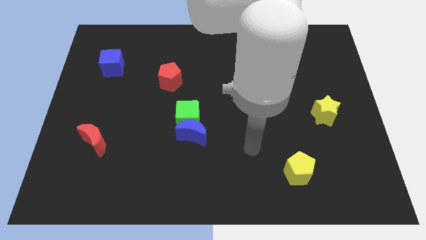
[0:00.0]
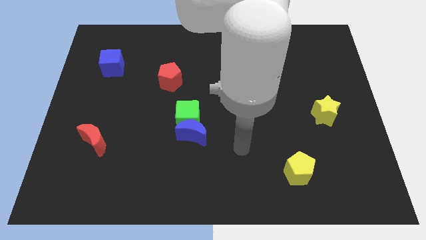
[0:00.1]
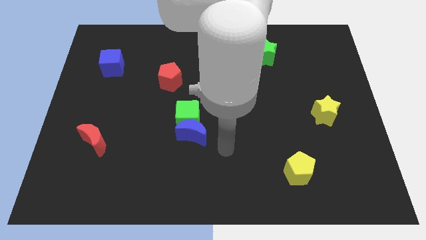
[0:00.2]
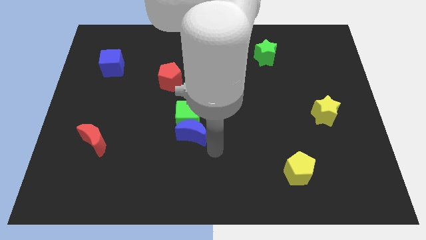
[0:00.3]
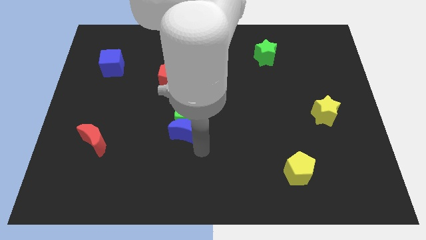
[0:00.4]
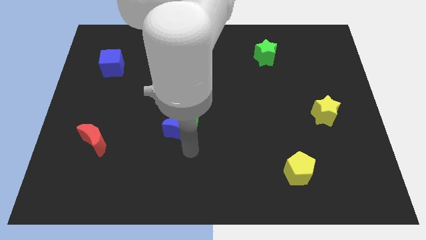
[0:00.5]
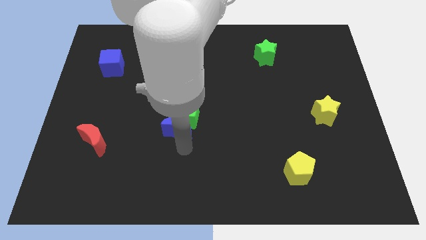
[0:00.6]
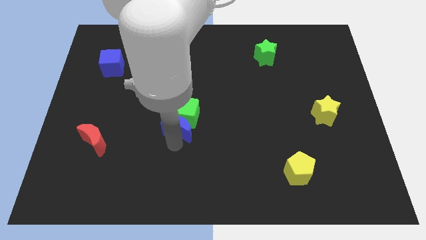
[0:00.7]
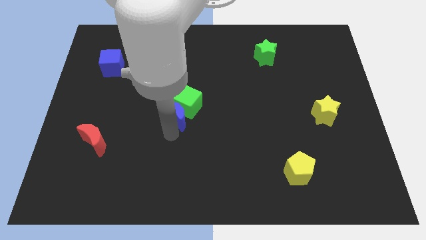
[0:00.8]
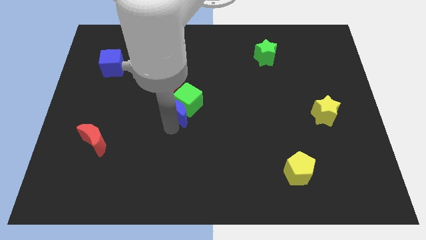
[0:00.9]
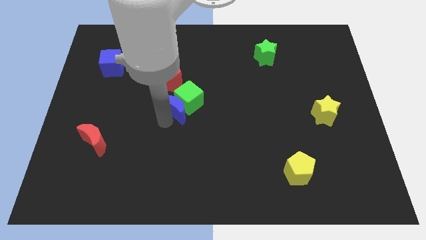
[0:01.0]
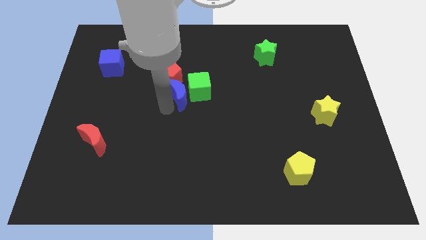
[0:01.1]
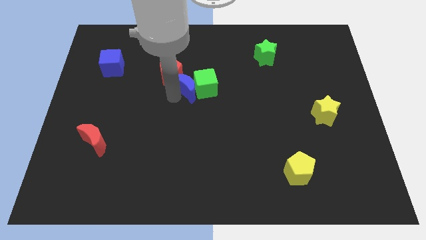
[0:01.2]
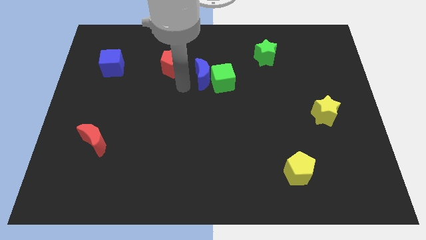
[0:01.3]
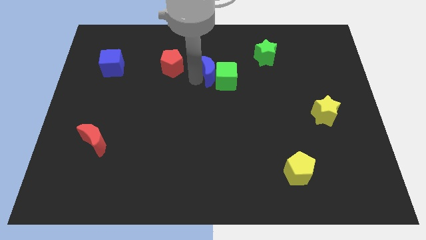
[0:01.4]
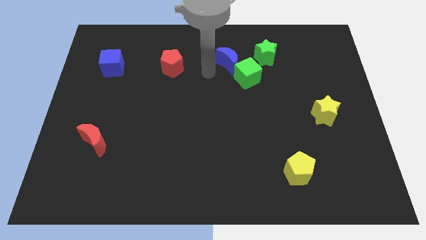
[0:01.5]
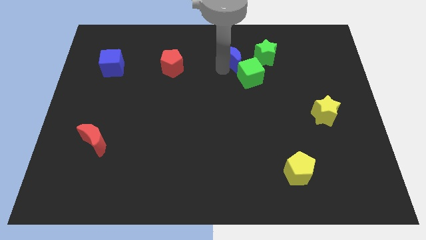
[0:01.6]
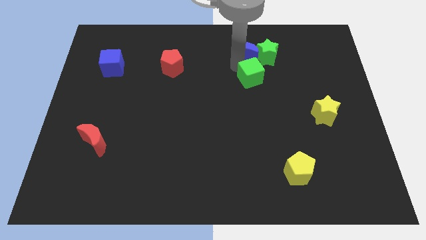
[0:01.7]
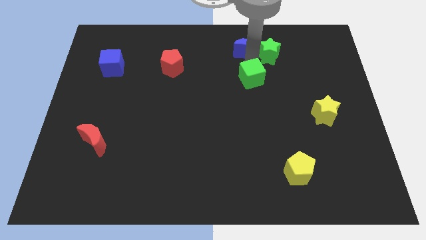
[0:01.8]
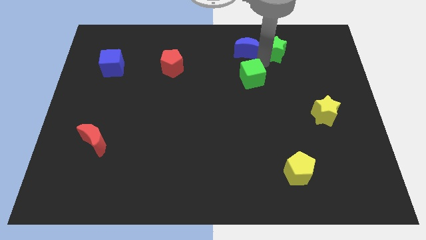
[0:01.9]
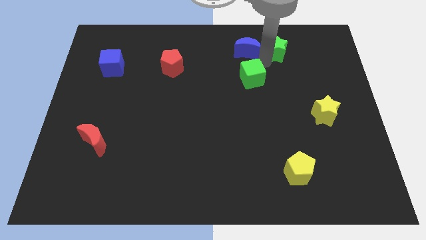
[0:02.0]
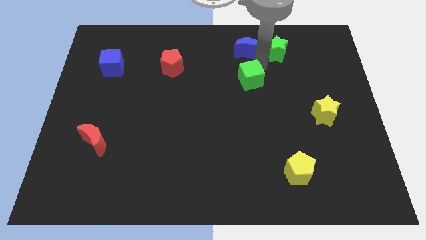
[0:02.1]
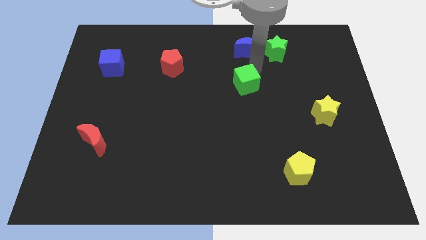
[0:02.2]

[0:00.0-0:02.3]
move the green cube right somewhat

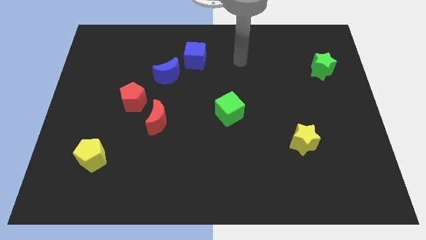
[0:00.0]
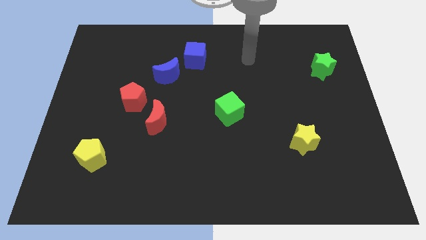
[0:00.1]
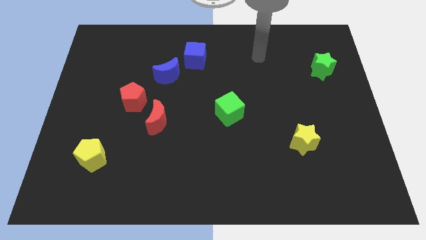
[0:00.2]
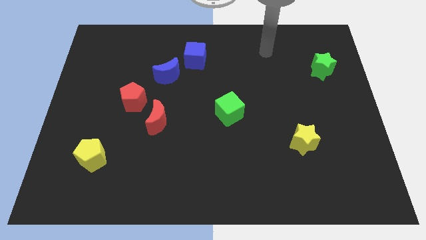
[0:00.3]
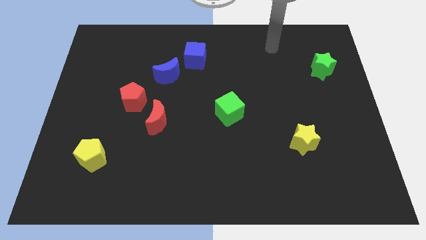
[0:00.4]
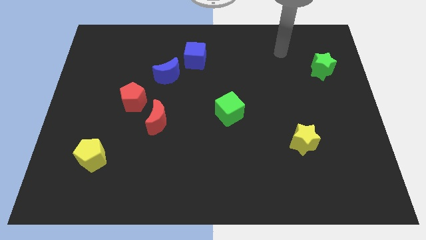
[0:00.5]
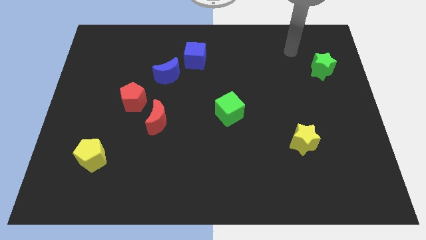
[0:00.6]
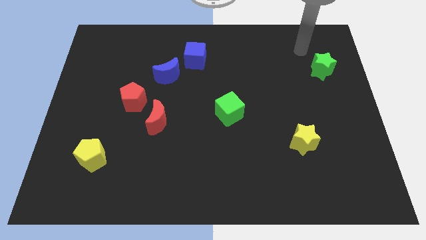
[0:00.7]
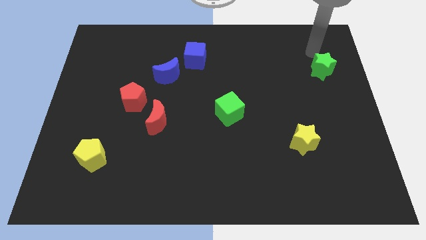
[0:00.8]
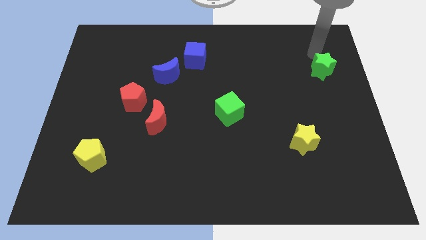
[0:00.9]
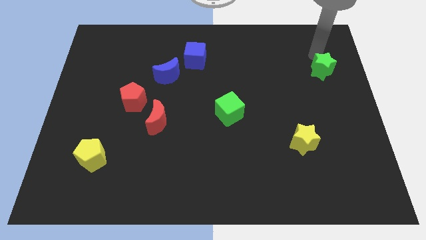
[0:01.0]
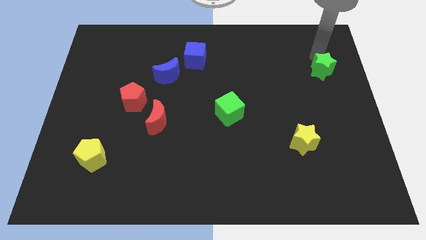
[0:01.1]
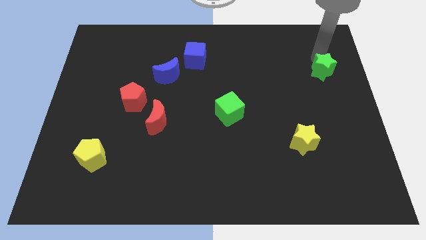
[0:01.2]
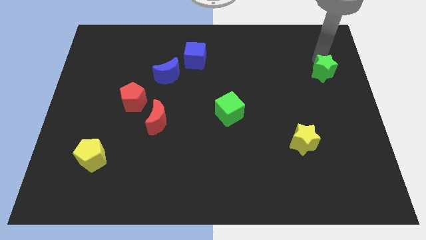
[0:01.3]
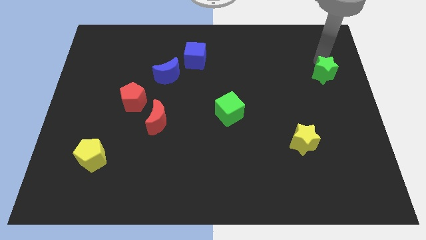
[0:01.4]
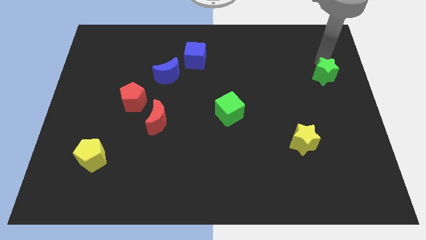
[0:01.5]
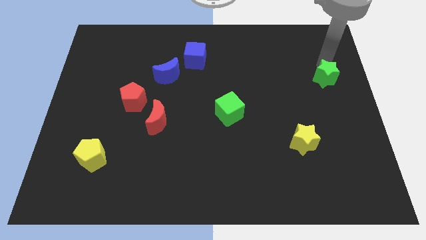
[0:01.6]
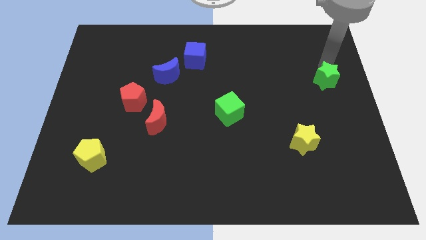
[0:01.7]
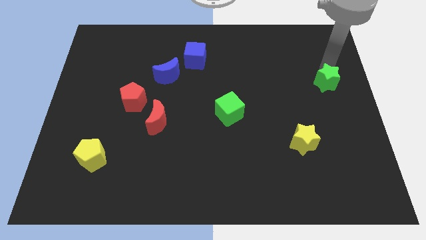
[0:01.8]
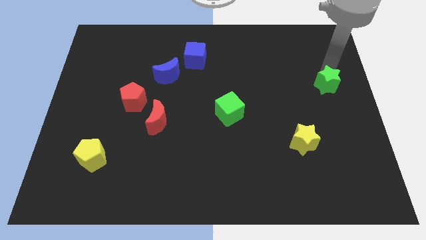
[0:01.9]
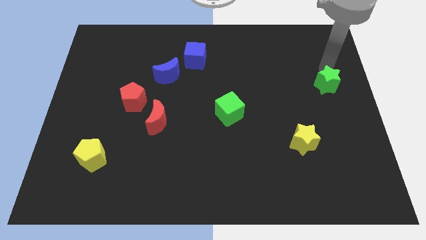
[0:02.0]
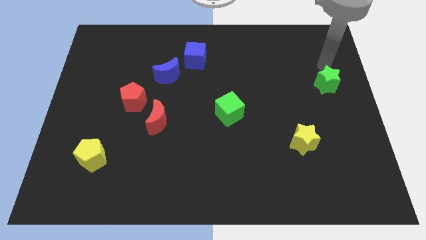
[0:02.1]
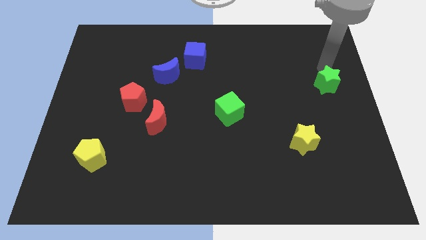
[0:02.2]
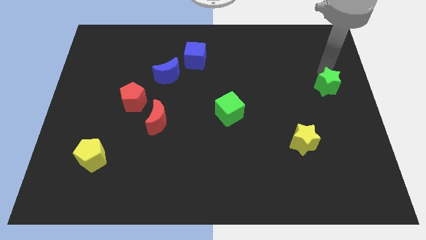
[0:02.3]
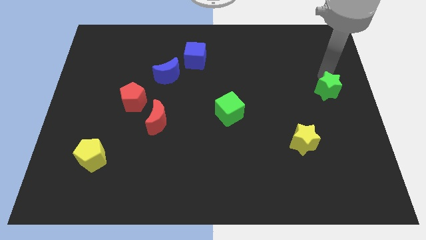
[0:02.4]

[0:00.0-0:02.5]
slightly move the green star down

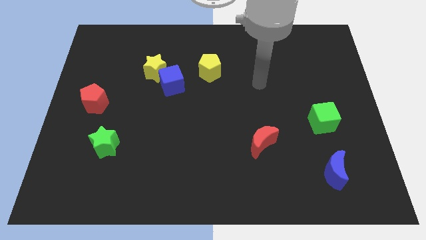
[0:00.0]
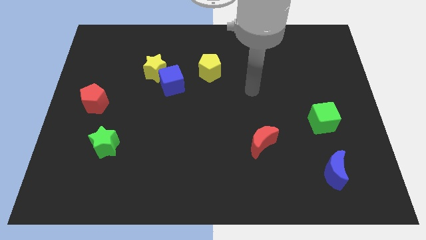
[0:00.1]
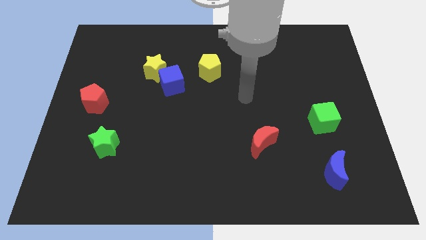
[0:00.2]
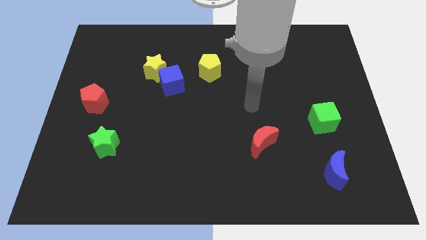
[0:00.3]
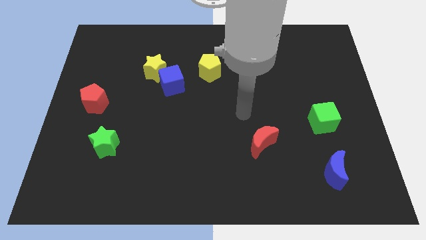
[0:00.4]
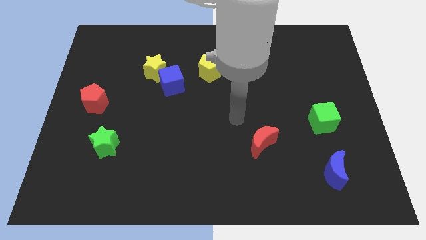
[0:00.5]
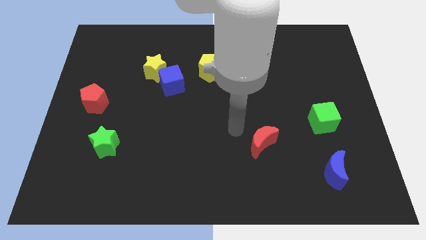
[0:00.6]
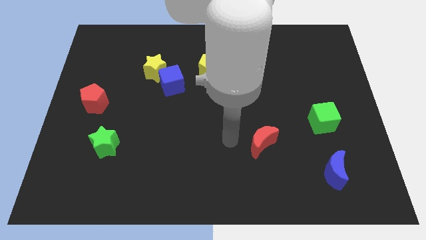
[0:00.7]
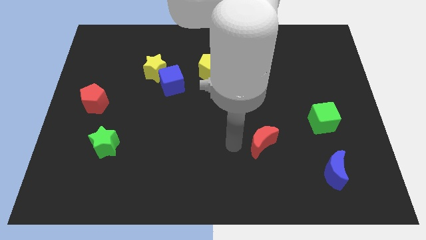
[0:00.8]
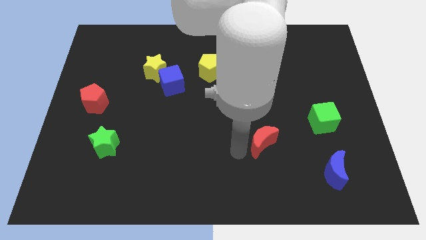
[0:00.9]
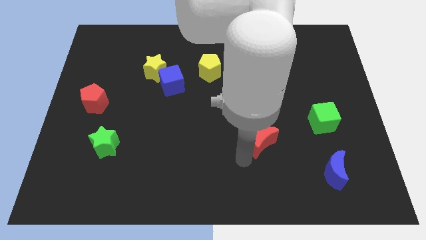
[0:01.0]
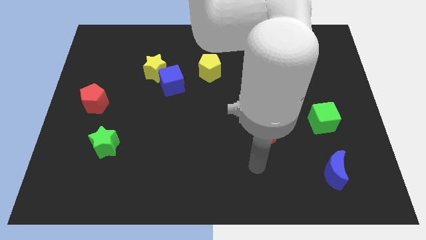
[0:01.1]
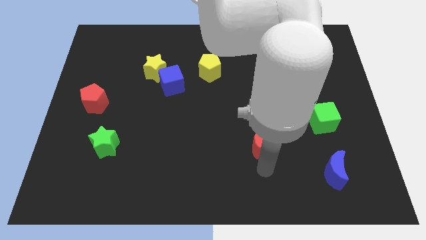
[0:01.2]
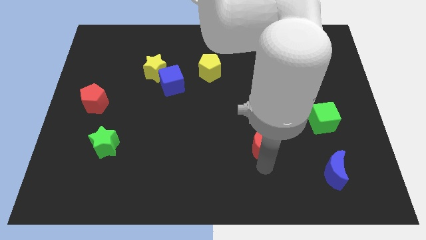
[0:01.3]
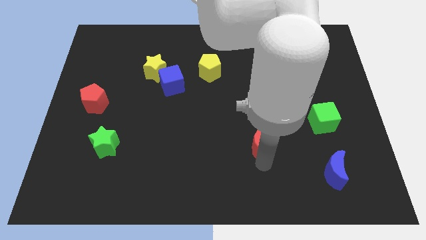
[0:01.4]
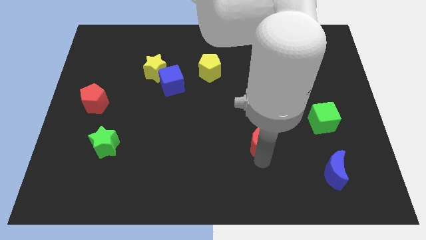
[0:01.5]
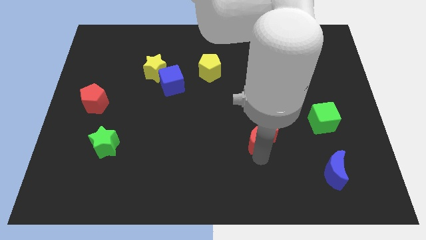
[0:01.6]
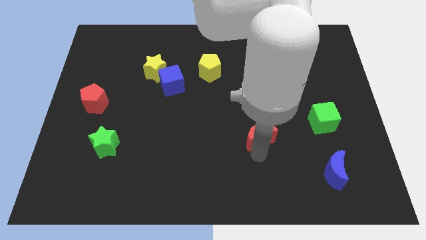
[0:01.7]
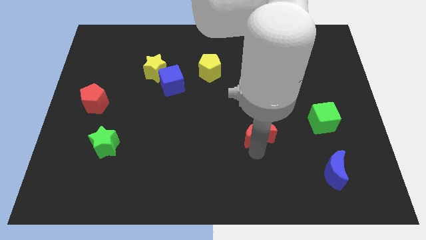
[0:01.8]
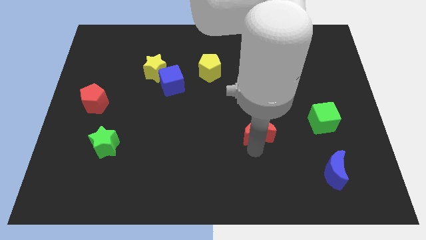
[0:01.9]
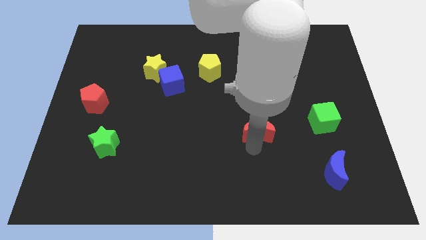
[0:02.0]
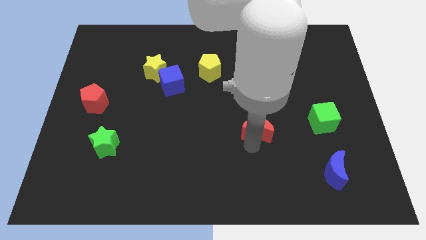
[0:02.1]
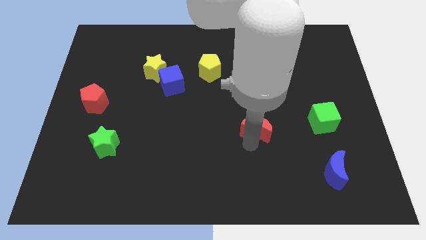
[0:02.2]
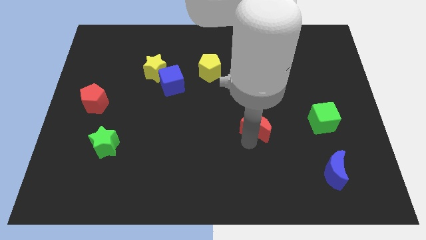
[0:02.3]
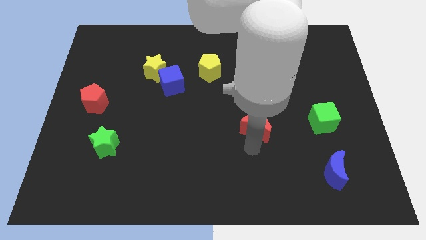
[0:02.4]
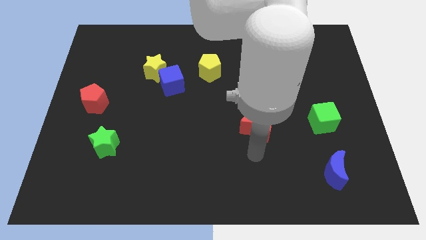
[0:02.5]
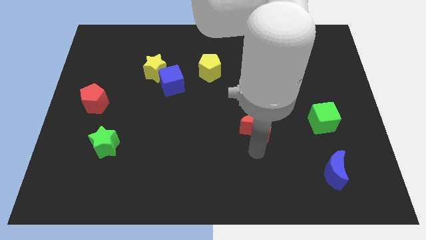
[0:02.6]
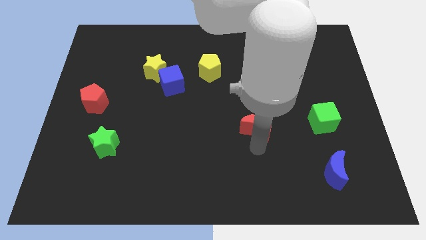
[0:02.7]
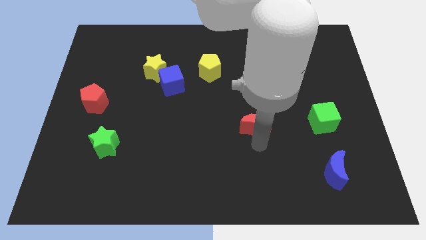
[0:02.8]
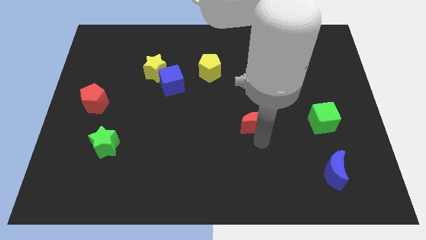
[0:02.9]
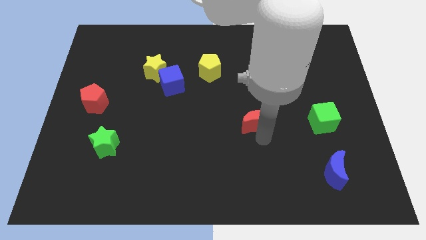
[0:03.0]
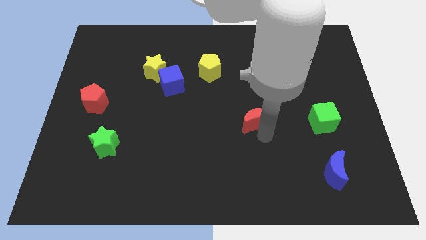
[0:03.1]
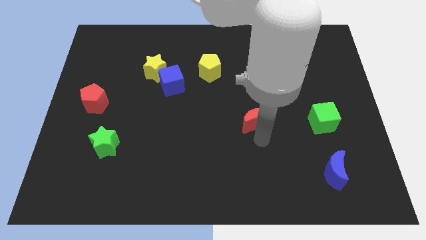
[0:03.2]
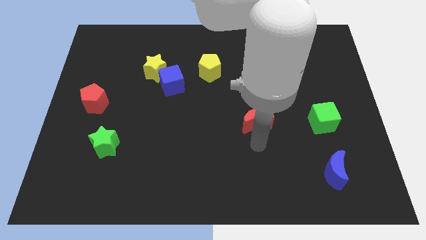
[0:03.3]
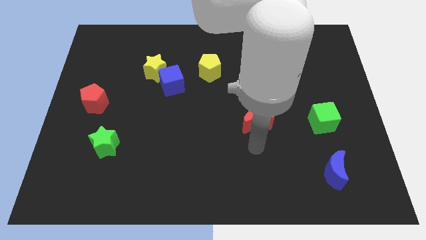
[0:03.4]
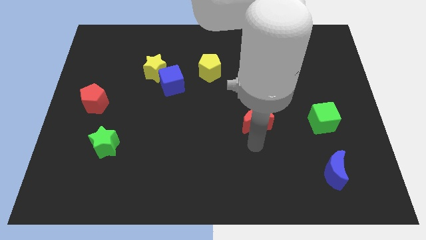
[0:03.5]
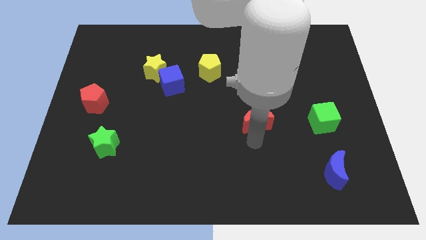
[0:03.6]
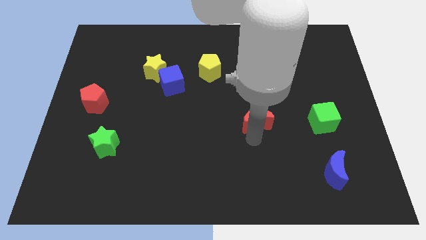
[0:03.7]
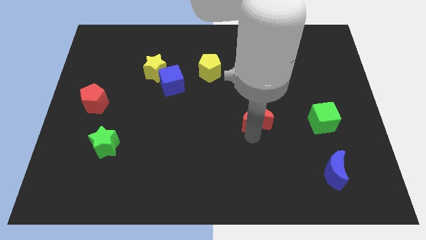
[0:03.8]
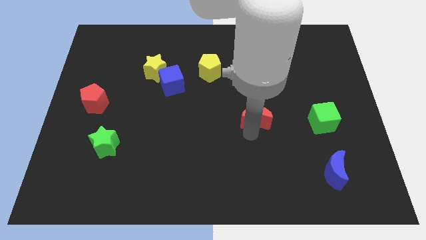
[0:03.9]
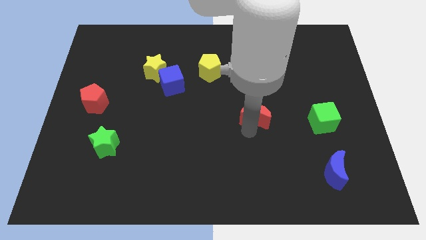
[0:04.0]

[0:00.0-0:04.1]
push the red moon a little bit up
